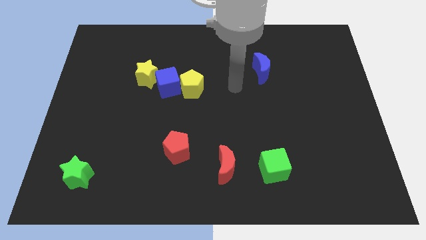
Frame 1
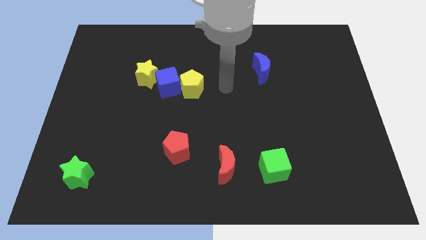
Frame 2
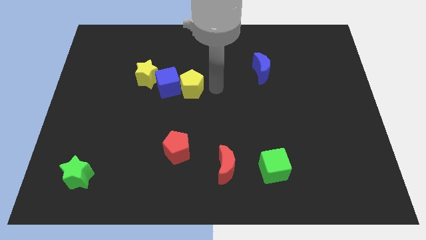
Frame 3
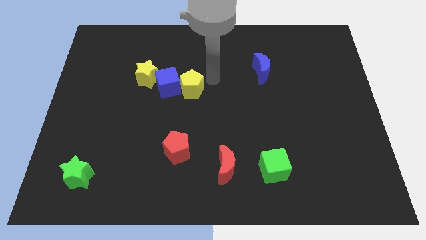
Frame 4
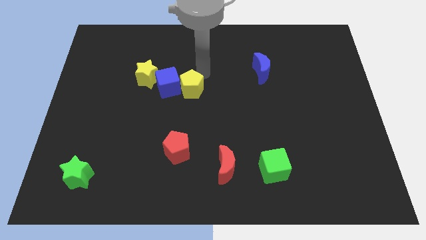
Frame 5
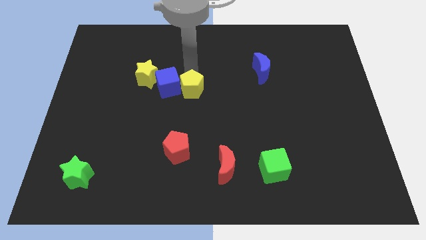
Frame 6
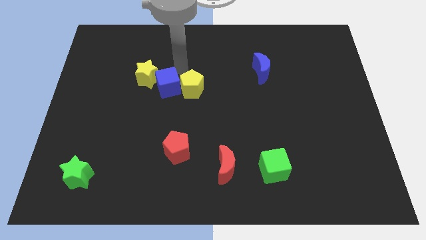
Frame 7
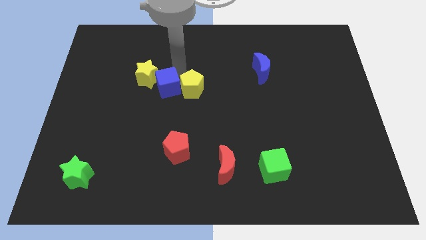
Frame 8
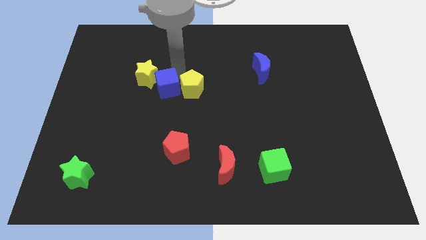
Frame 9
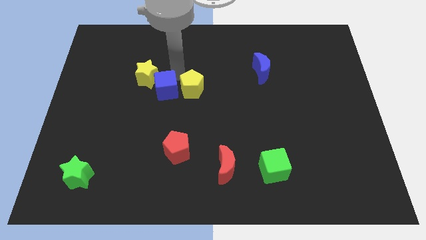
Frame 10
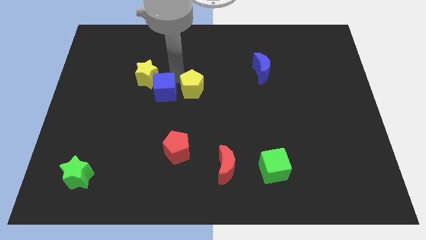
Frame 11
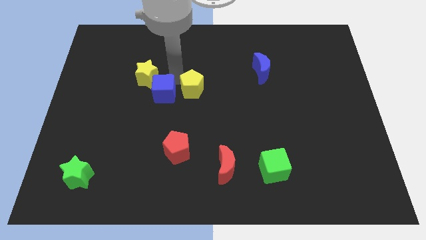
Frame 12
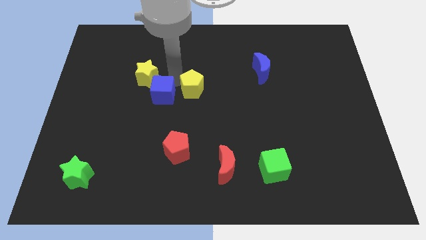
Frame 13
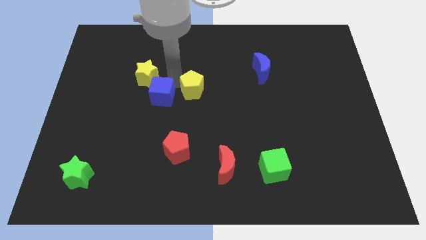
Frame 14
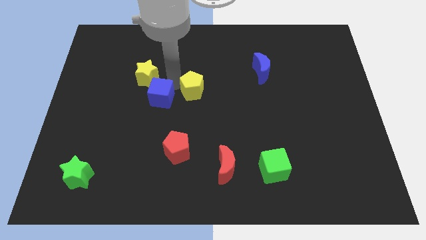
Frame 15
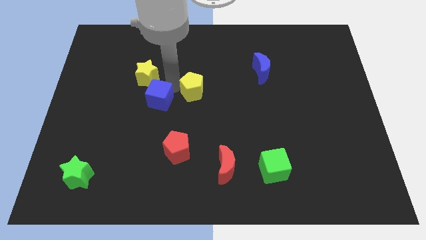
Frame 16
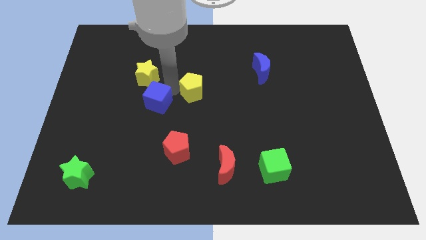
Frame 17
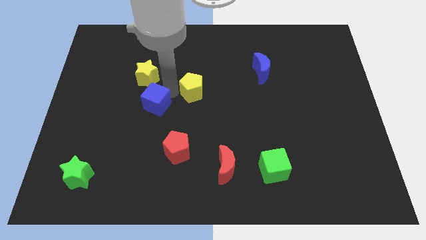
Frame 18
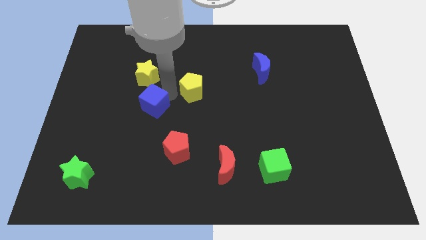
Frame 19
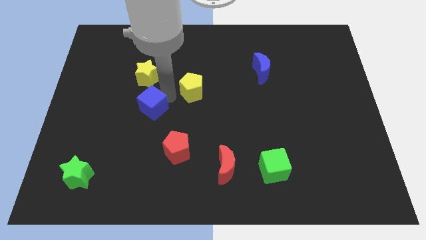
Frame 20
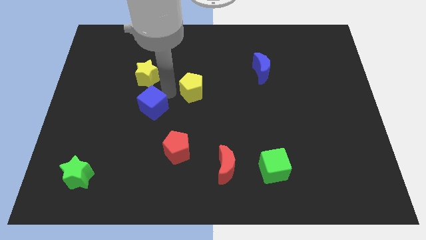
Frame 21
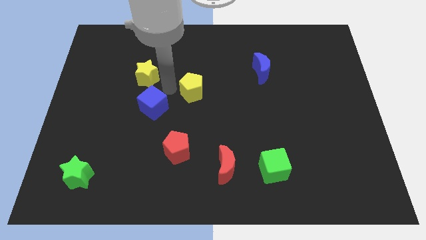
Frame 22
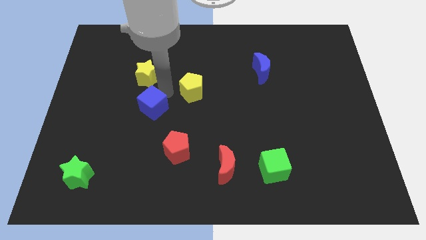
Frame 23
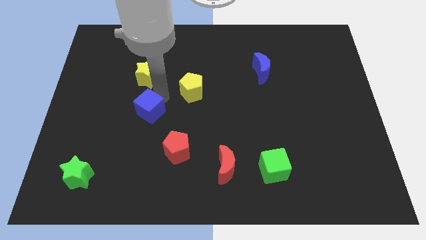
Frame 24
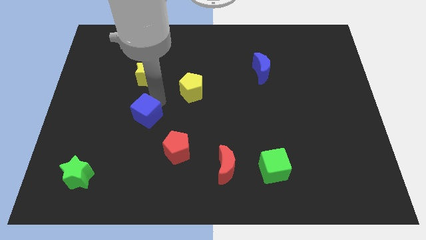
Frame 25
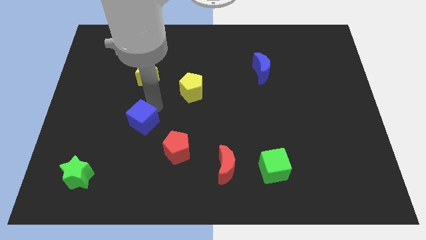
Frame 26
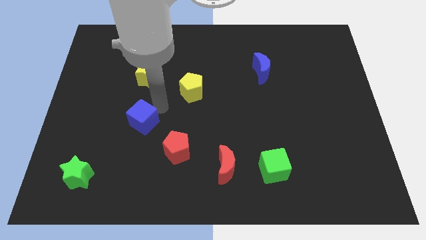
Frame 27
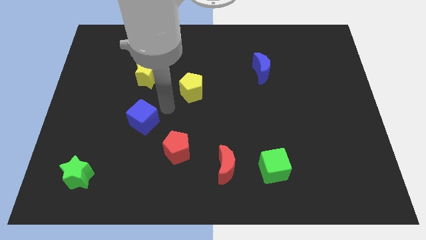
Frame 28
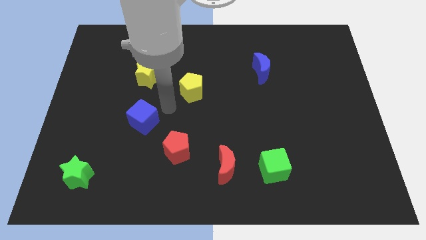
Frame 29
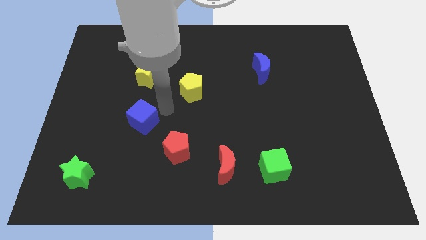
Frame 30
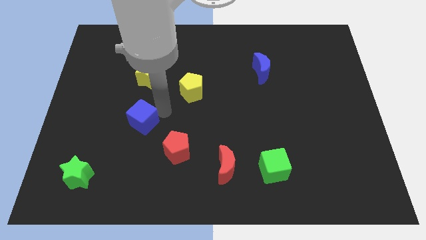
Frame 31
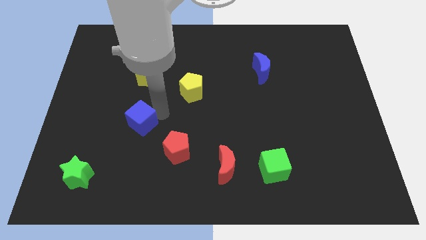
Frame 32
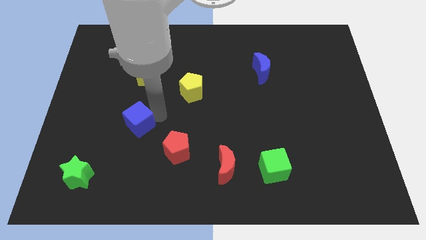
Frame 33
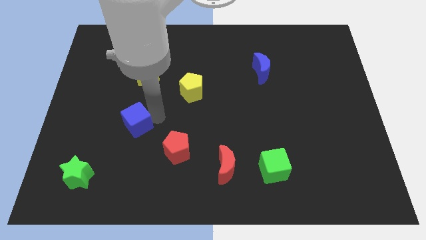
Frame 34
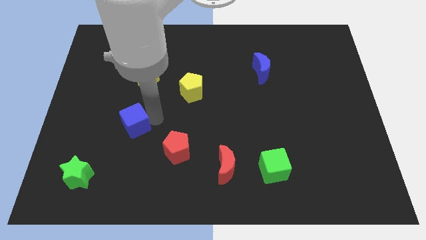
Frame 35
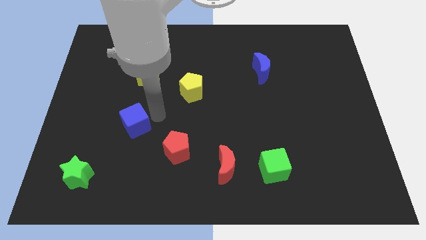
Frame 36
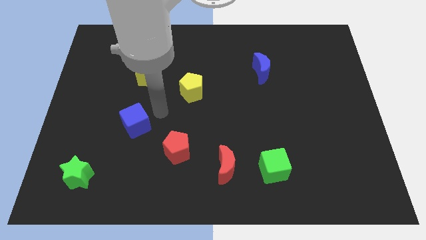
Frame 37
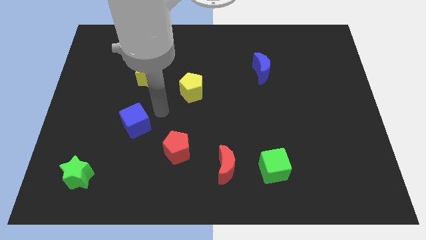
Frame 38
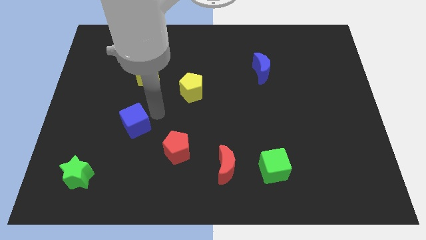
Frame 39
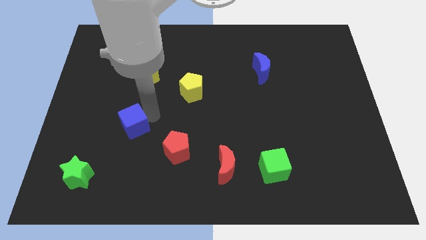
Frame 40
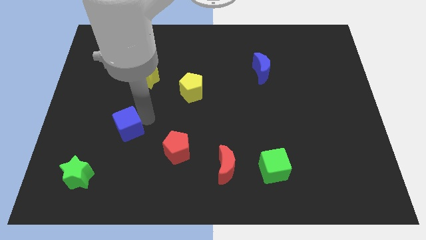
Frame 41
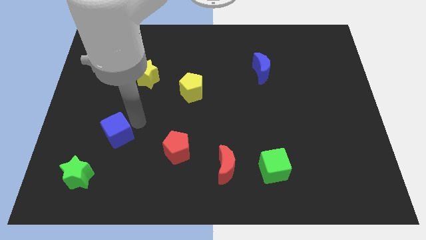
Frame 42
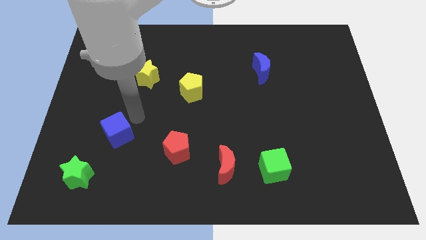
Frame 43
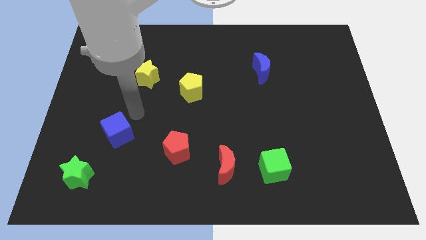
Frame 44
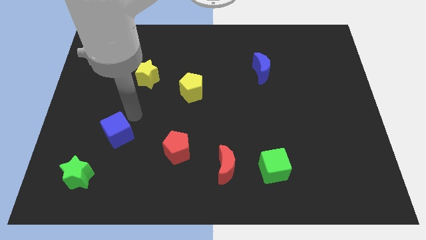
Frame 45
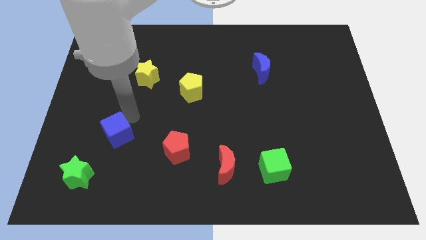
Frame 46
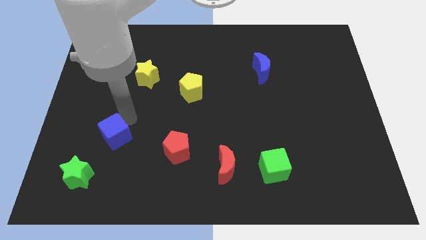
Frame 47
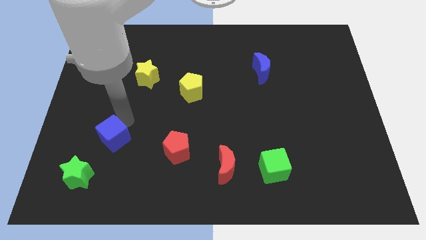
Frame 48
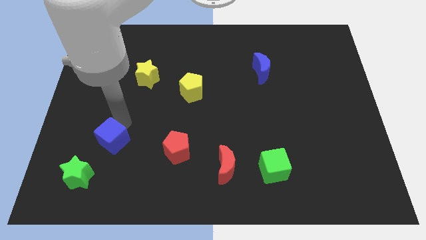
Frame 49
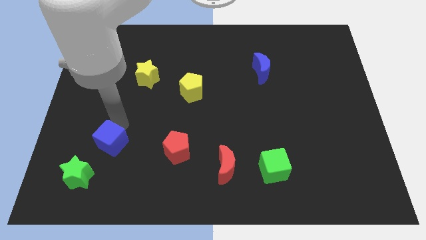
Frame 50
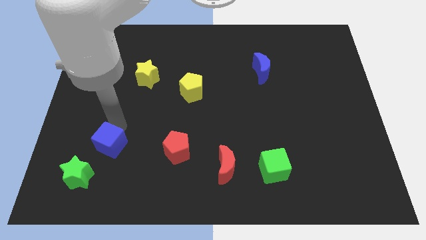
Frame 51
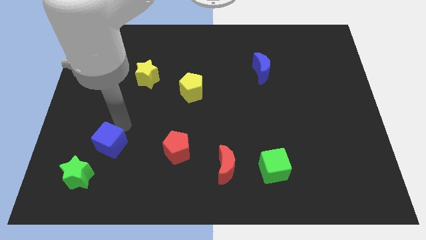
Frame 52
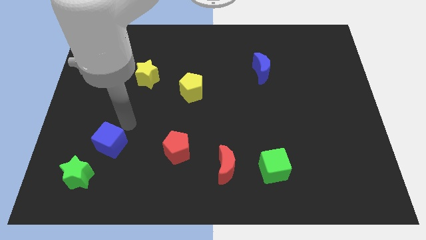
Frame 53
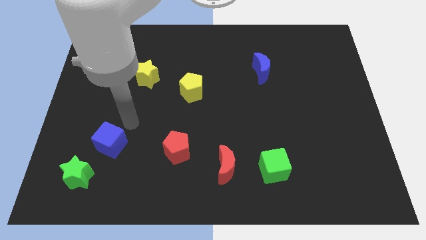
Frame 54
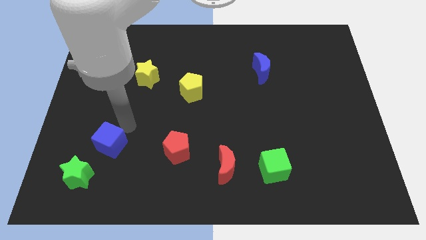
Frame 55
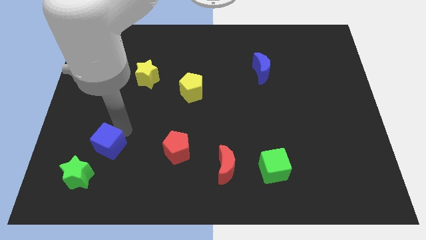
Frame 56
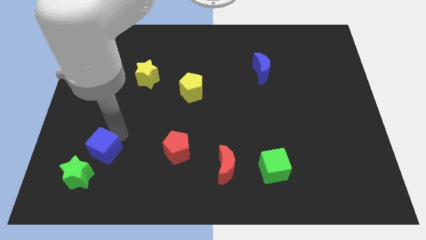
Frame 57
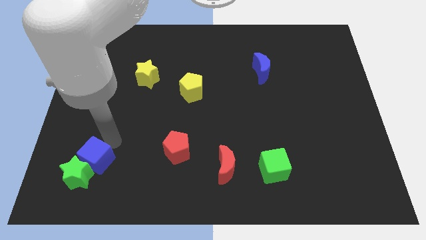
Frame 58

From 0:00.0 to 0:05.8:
move the blue cube to the green star

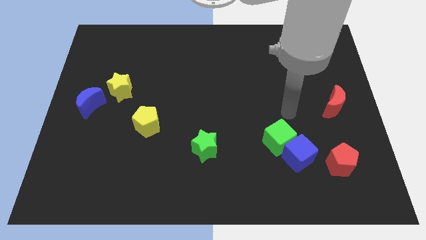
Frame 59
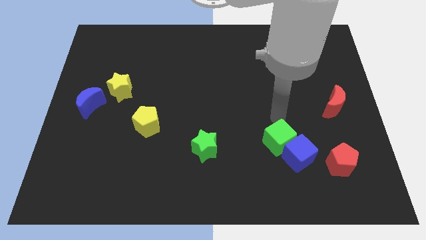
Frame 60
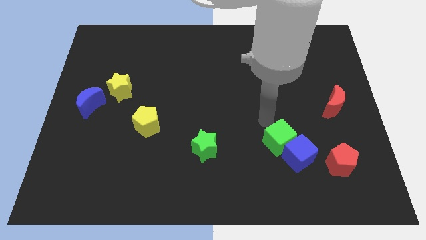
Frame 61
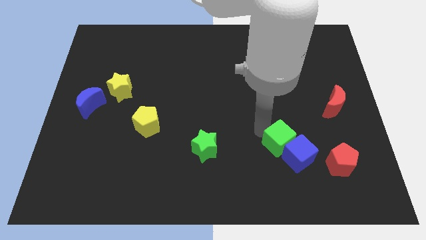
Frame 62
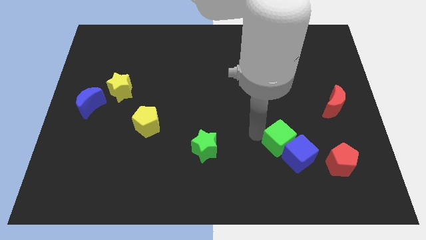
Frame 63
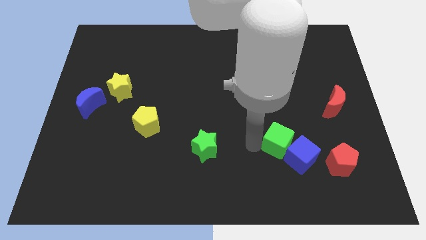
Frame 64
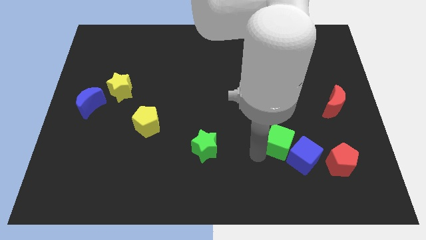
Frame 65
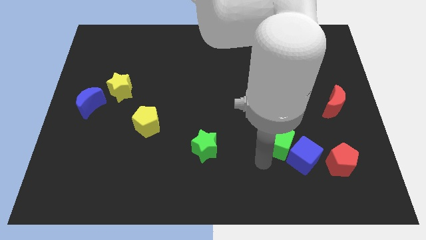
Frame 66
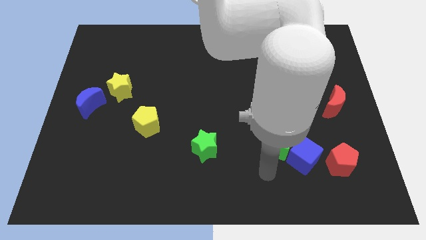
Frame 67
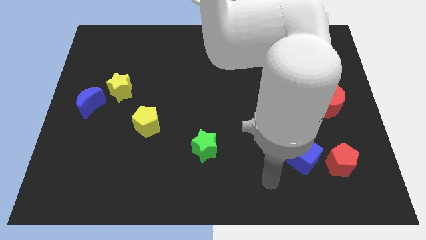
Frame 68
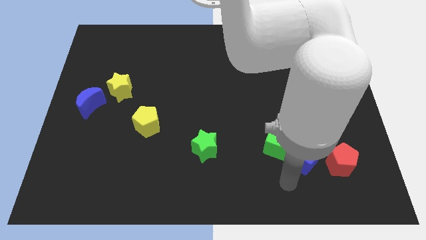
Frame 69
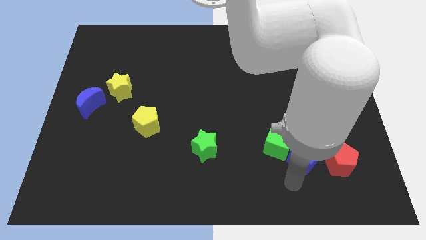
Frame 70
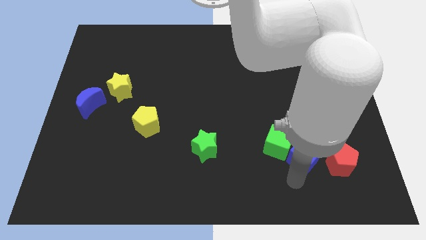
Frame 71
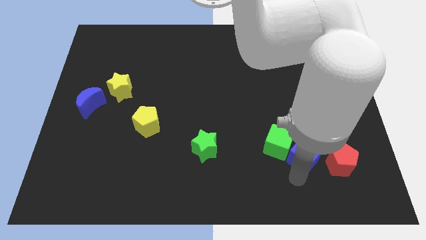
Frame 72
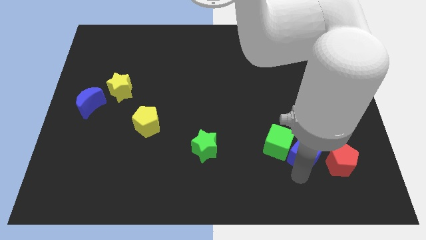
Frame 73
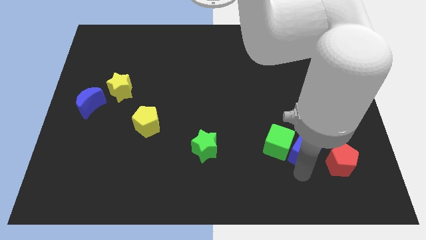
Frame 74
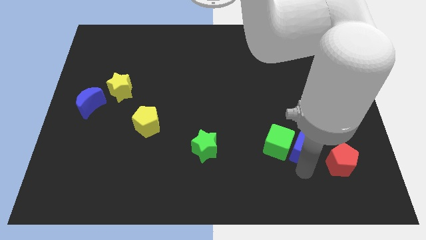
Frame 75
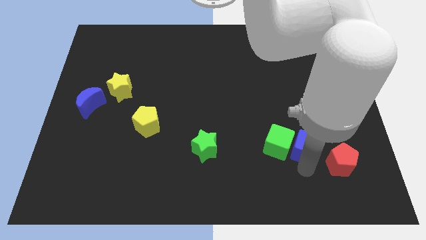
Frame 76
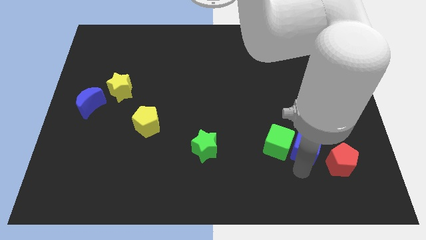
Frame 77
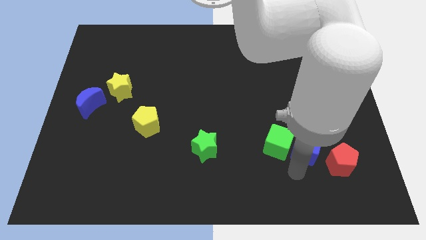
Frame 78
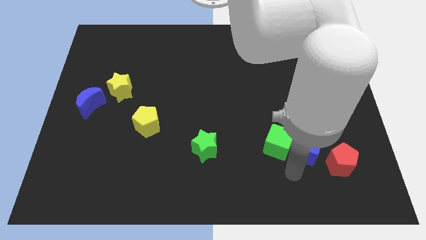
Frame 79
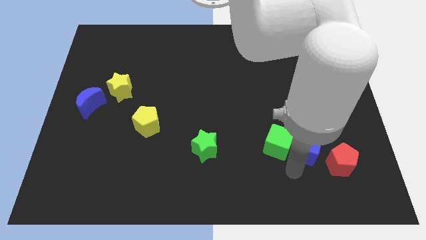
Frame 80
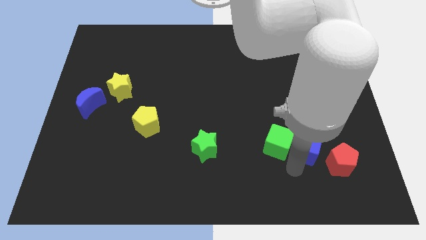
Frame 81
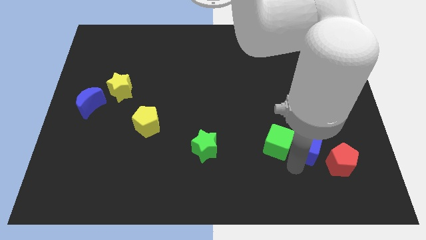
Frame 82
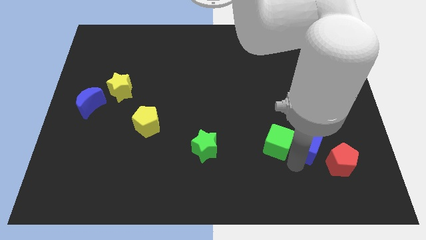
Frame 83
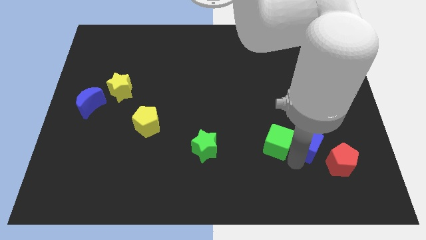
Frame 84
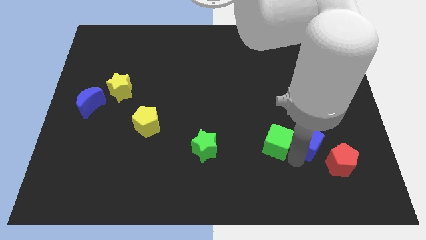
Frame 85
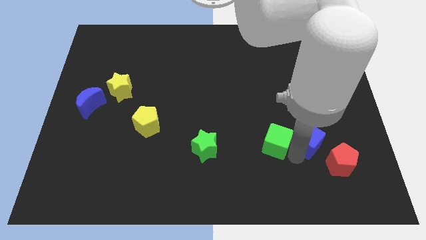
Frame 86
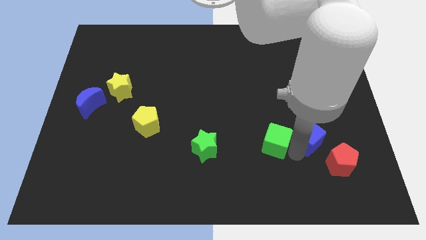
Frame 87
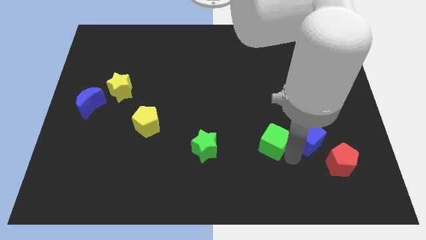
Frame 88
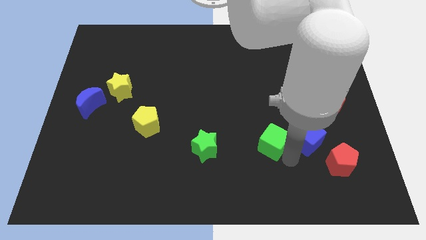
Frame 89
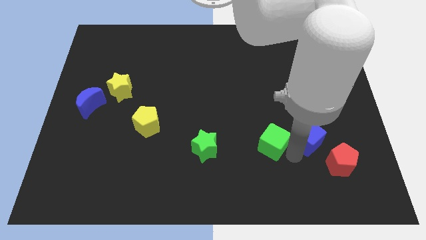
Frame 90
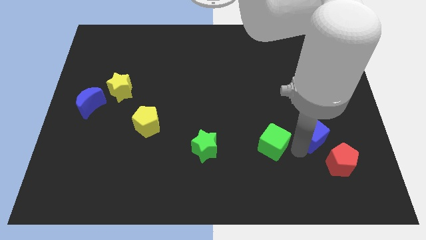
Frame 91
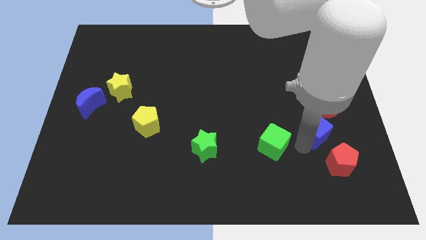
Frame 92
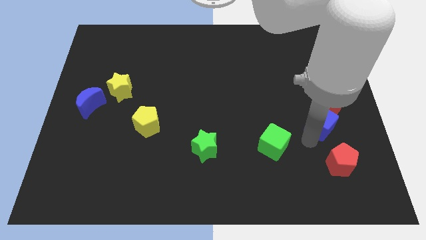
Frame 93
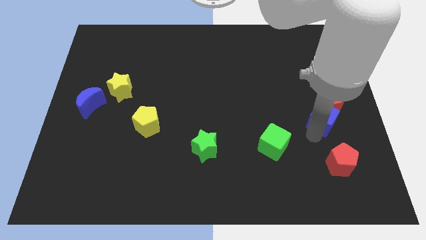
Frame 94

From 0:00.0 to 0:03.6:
put the blue cube to the red moon
